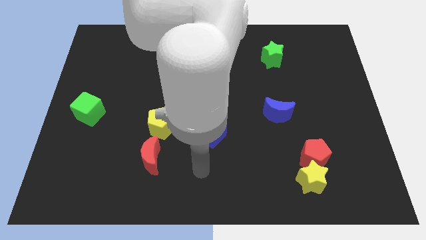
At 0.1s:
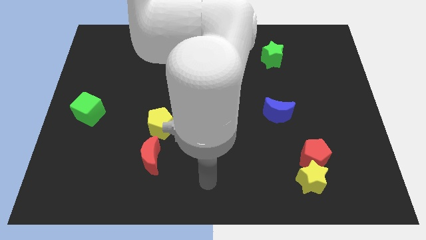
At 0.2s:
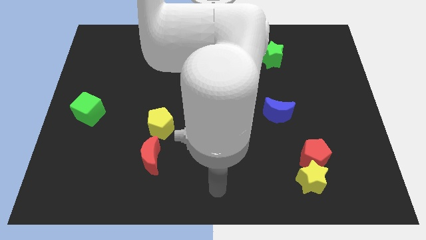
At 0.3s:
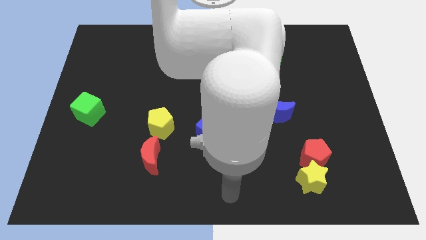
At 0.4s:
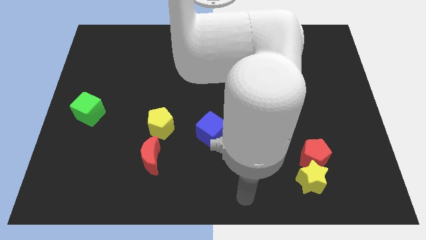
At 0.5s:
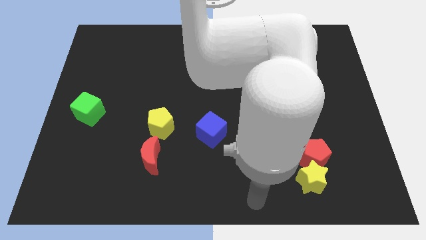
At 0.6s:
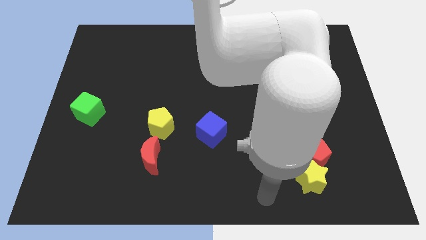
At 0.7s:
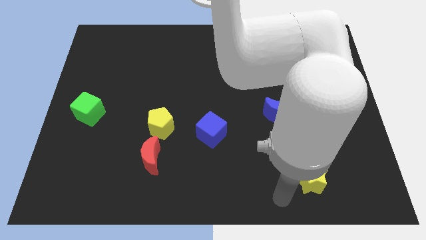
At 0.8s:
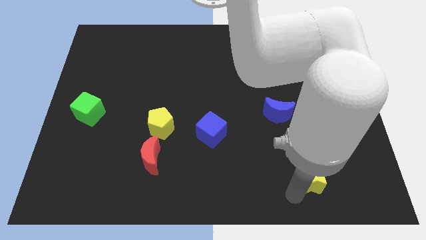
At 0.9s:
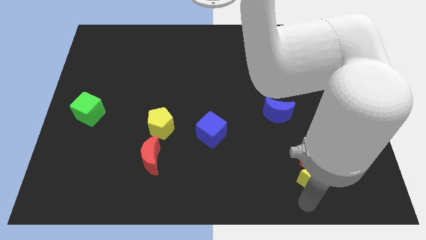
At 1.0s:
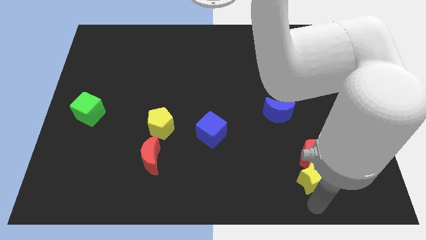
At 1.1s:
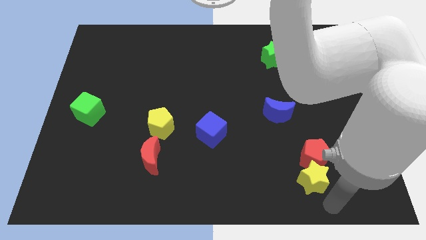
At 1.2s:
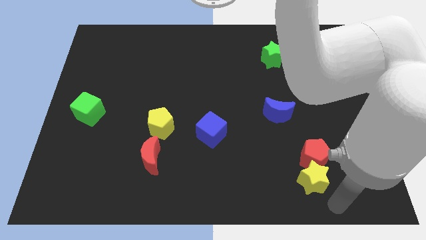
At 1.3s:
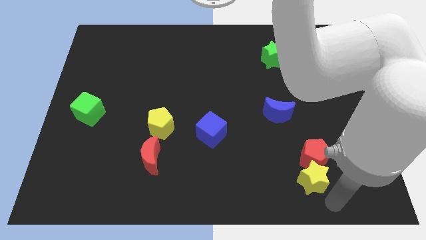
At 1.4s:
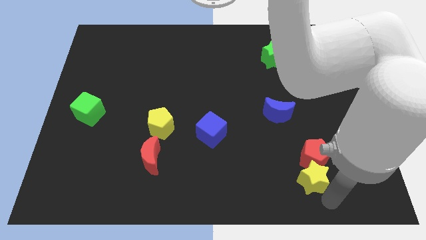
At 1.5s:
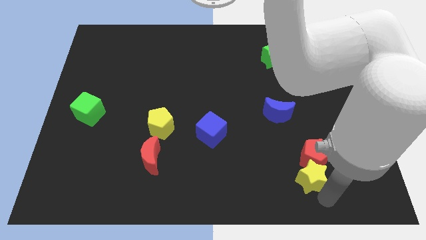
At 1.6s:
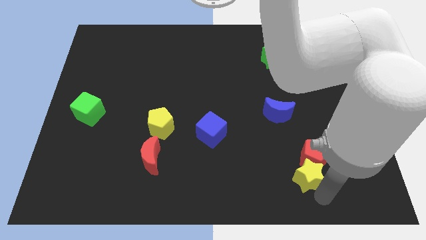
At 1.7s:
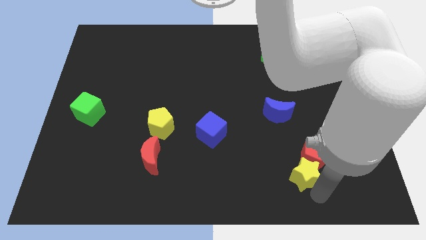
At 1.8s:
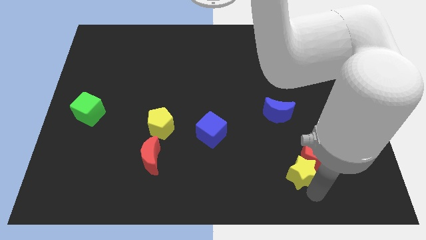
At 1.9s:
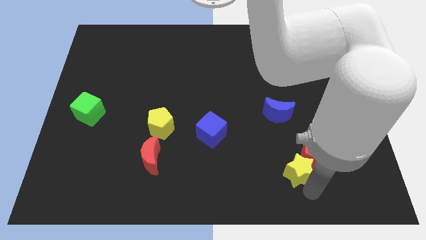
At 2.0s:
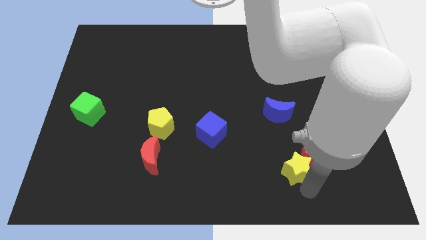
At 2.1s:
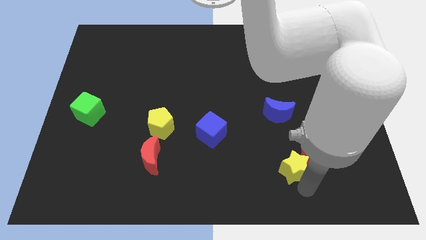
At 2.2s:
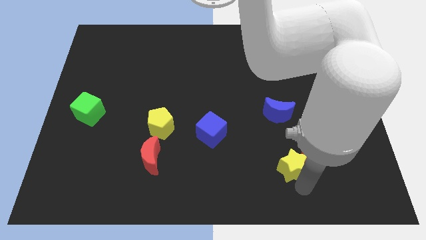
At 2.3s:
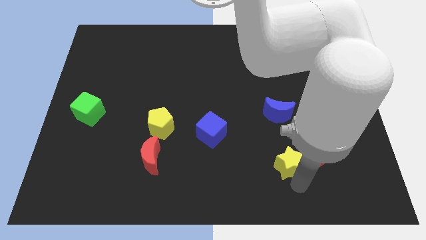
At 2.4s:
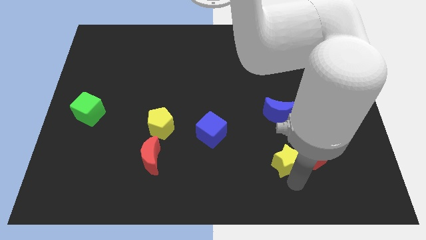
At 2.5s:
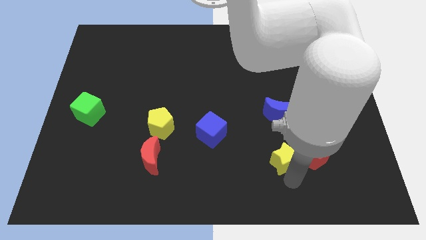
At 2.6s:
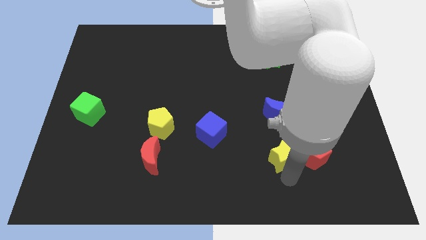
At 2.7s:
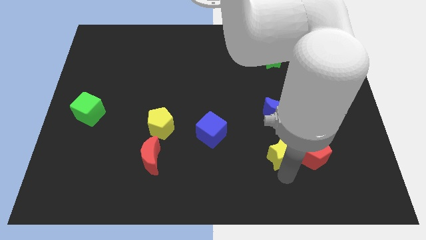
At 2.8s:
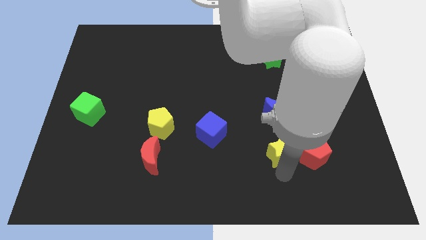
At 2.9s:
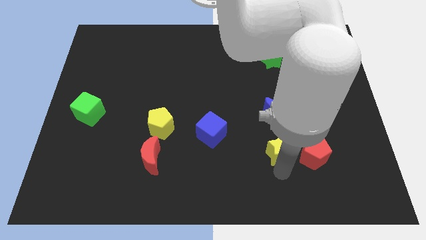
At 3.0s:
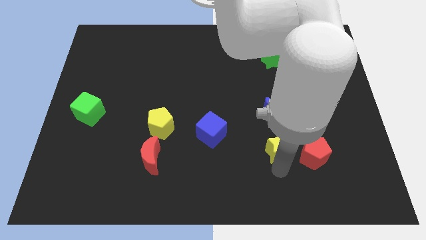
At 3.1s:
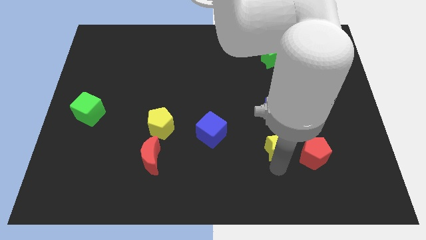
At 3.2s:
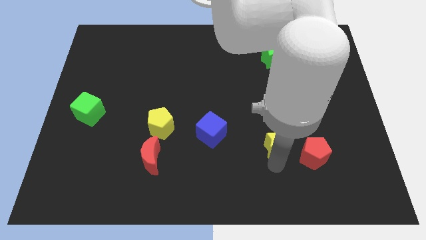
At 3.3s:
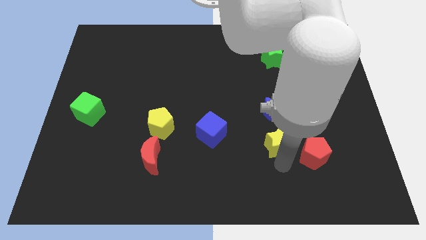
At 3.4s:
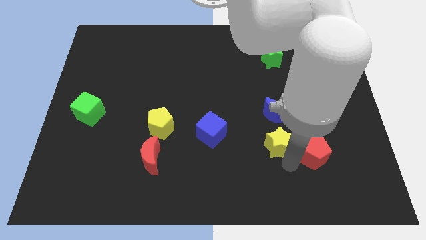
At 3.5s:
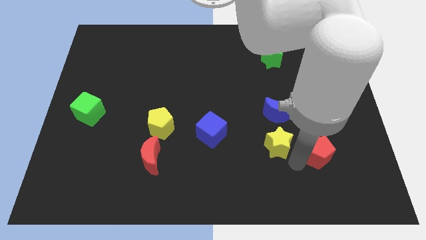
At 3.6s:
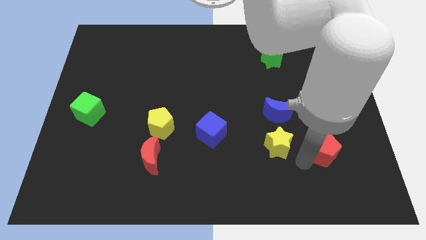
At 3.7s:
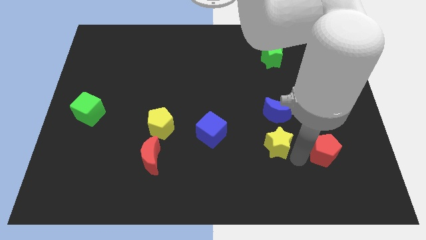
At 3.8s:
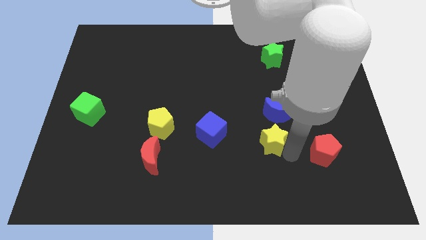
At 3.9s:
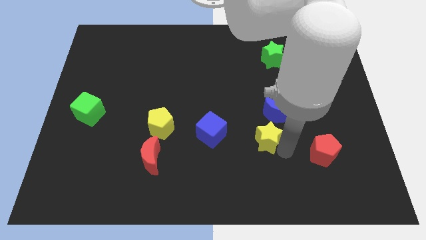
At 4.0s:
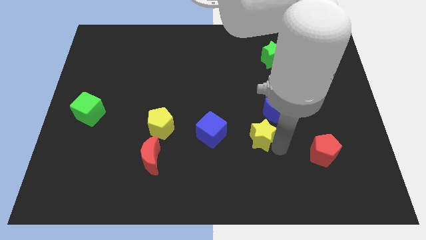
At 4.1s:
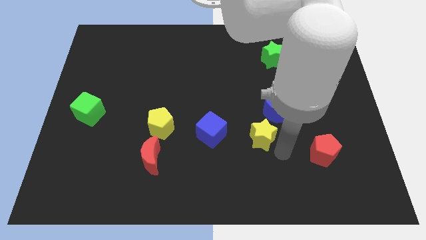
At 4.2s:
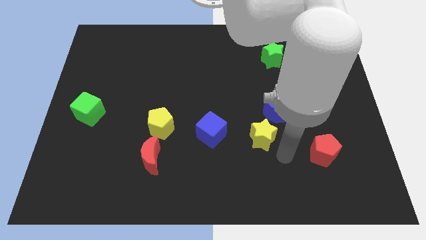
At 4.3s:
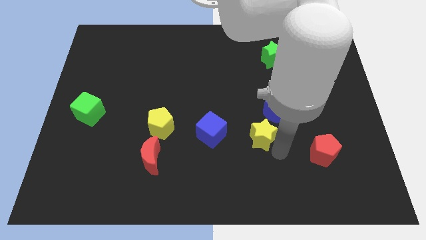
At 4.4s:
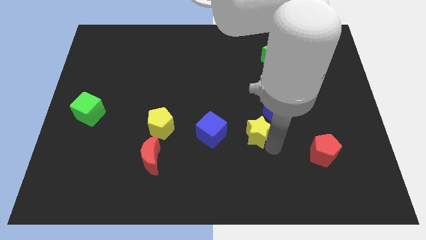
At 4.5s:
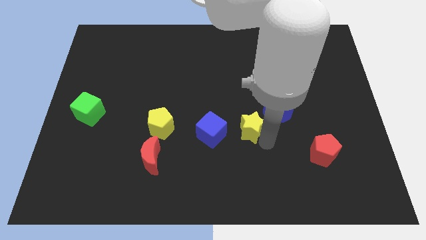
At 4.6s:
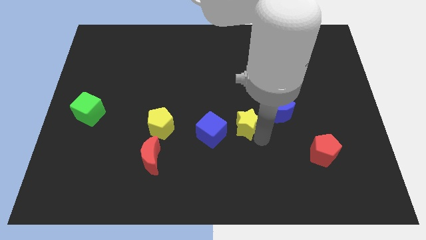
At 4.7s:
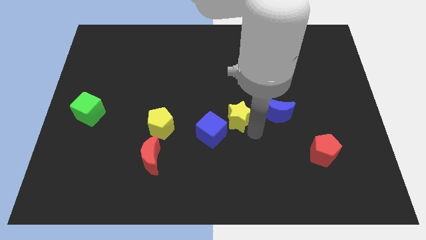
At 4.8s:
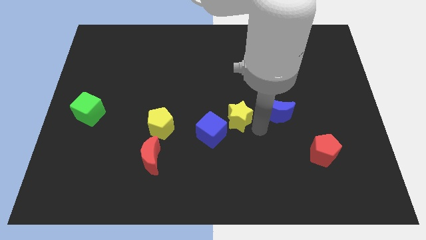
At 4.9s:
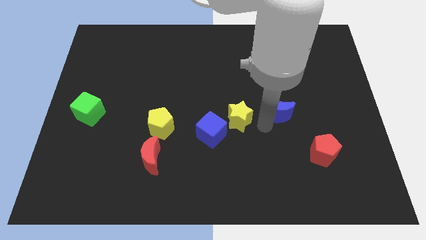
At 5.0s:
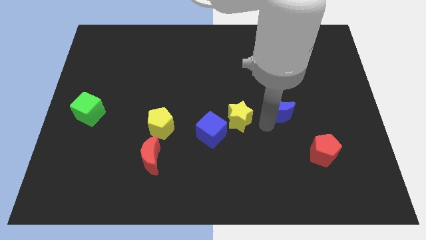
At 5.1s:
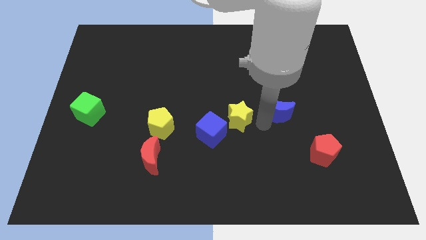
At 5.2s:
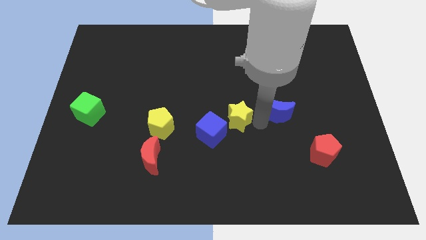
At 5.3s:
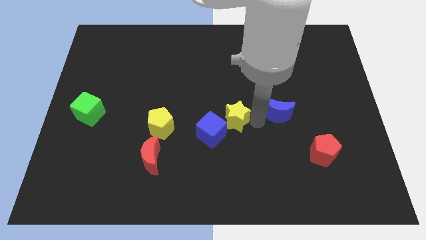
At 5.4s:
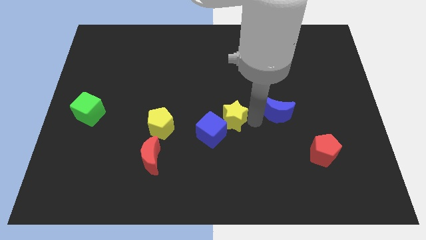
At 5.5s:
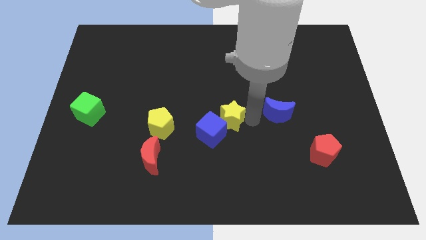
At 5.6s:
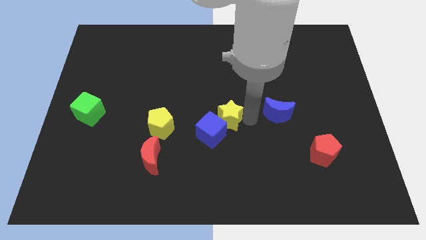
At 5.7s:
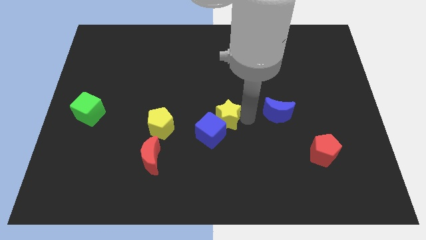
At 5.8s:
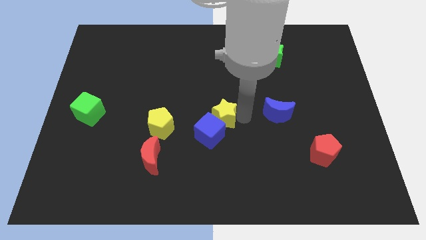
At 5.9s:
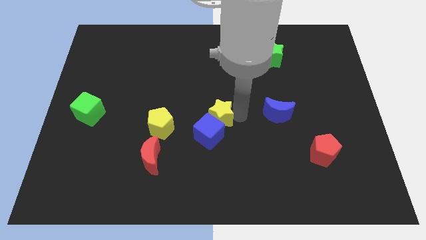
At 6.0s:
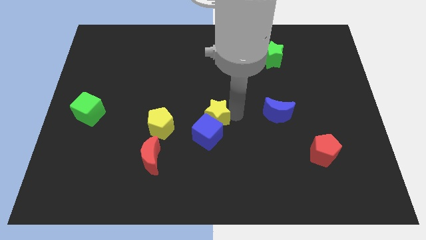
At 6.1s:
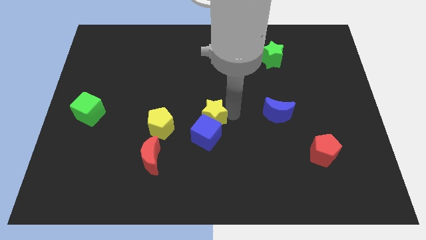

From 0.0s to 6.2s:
move the yellow star to the top left of the blue cube

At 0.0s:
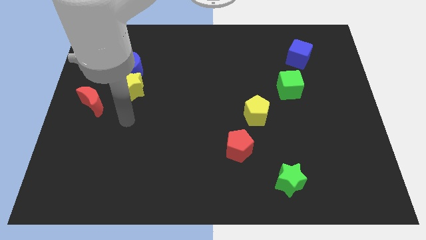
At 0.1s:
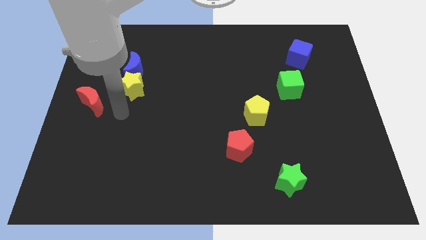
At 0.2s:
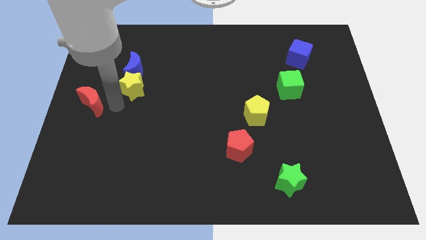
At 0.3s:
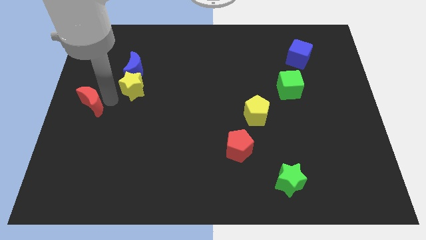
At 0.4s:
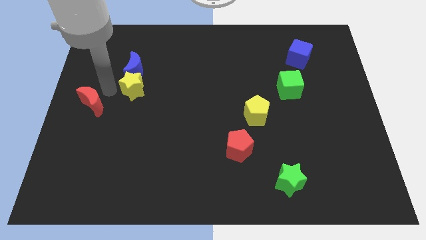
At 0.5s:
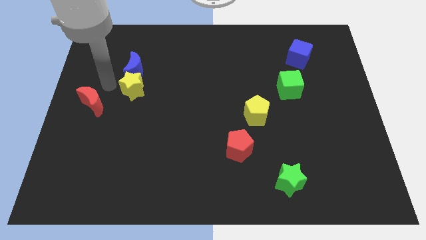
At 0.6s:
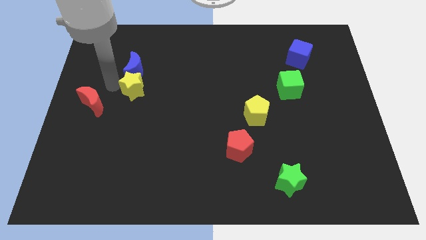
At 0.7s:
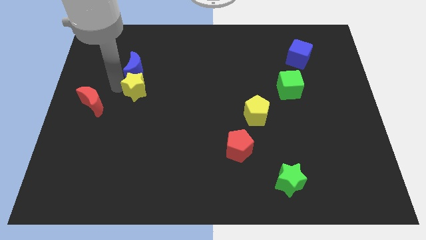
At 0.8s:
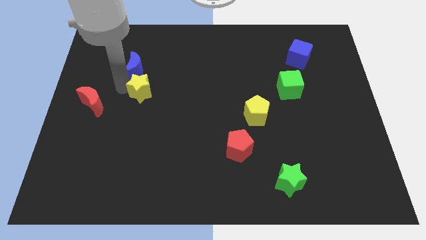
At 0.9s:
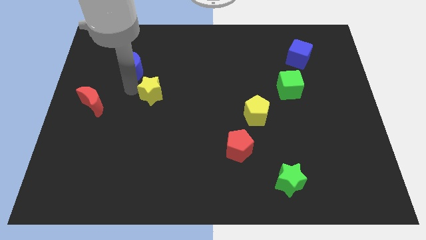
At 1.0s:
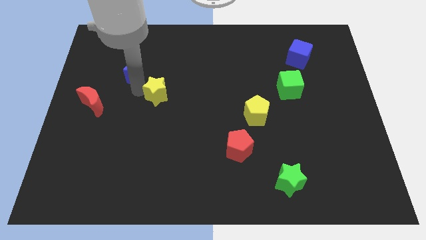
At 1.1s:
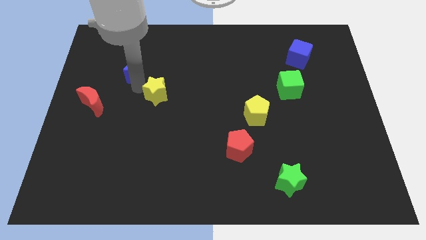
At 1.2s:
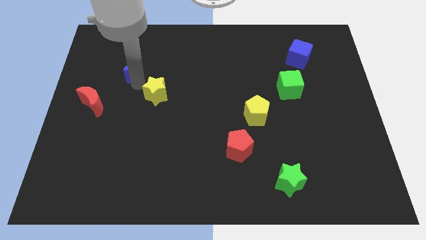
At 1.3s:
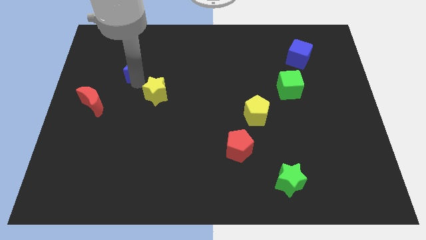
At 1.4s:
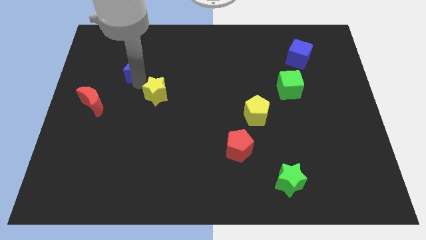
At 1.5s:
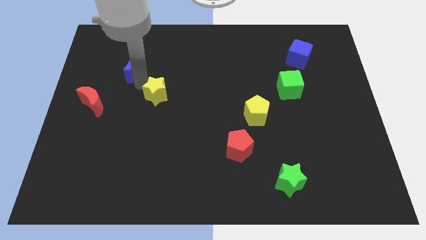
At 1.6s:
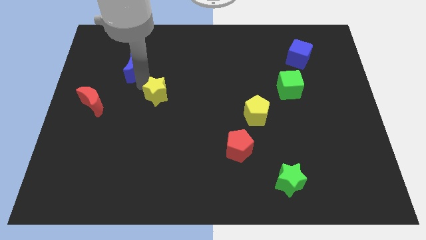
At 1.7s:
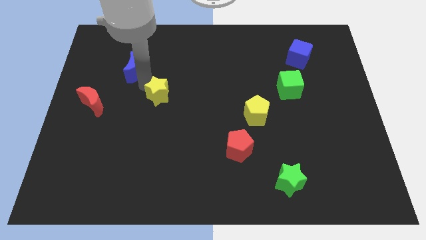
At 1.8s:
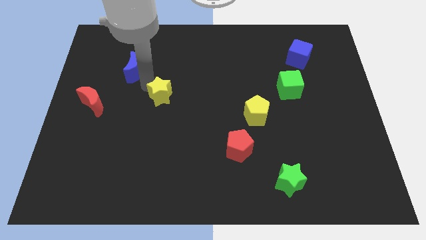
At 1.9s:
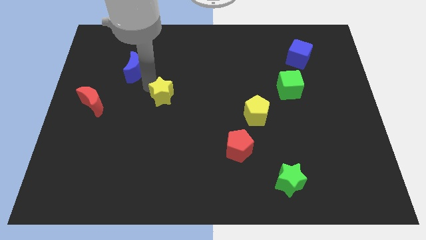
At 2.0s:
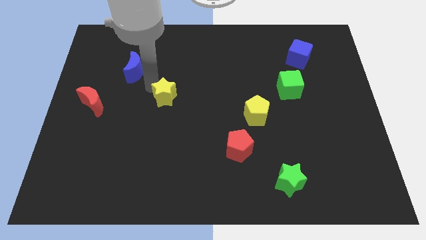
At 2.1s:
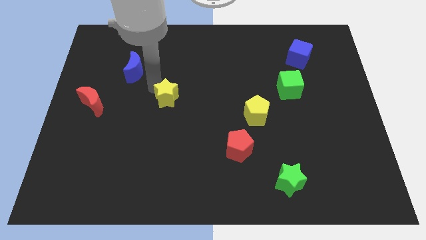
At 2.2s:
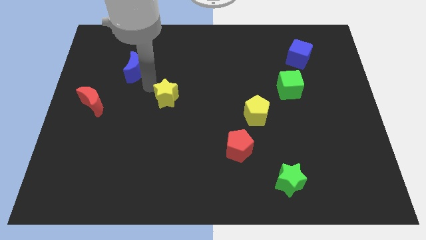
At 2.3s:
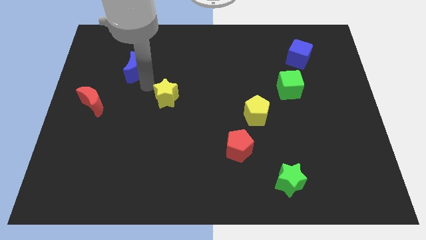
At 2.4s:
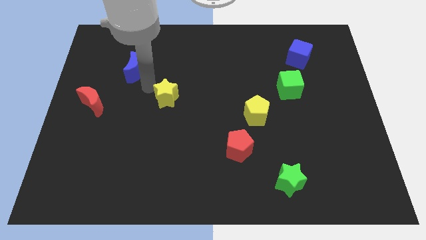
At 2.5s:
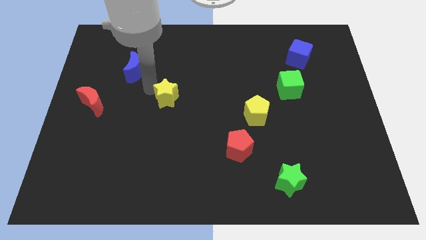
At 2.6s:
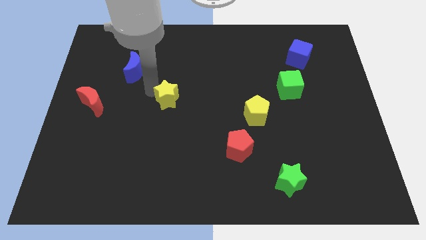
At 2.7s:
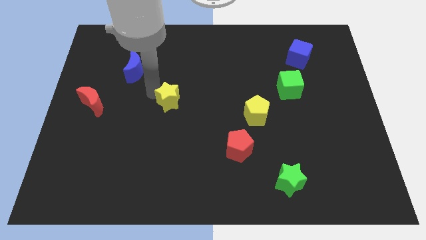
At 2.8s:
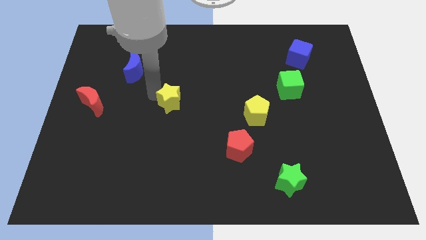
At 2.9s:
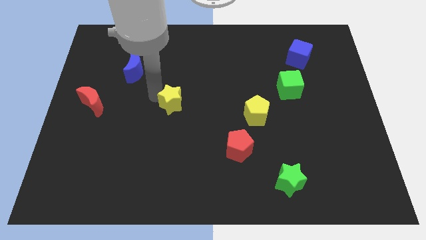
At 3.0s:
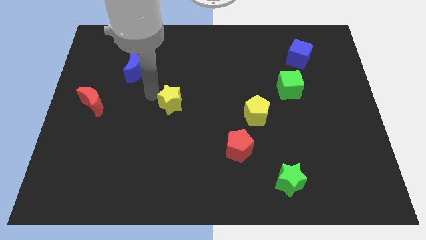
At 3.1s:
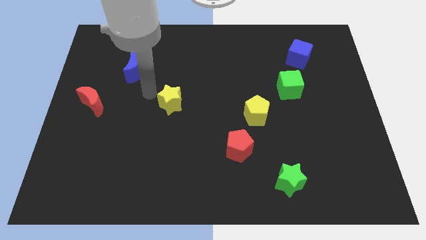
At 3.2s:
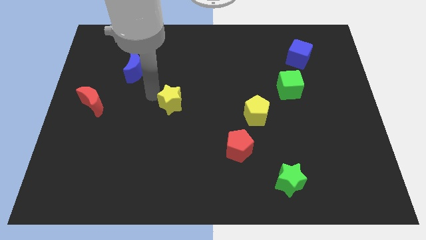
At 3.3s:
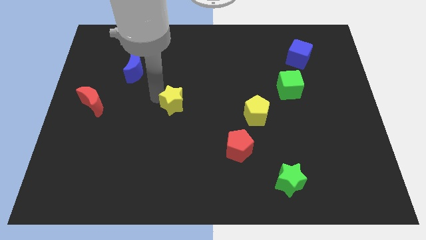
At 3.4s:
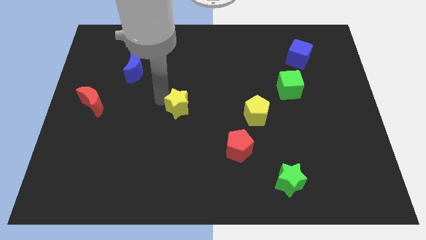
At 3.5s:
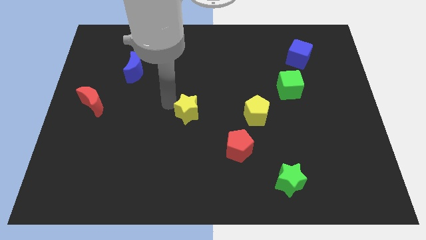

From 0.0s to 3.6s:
put the yellow star just left of the yellow pentagon
